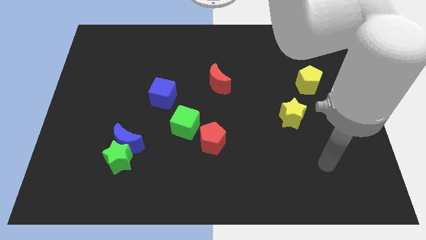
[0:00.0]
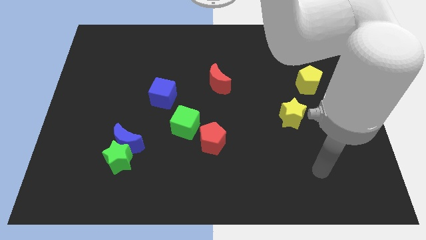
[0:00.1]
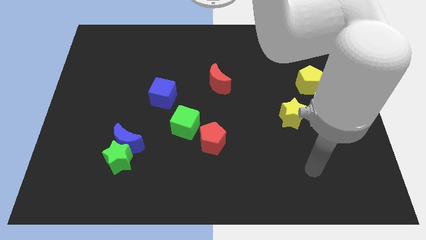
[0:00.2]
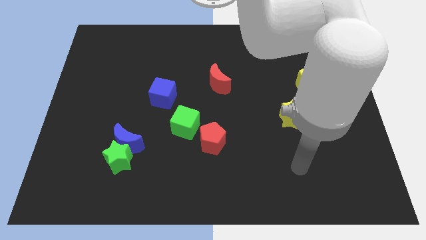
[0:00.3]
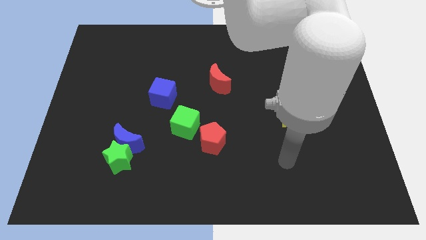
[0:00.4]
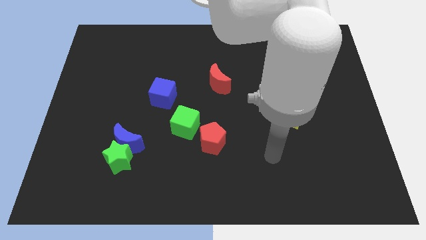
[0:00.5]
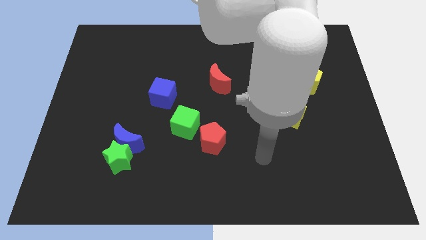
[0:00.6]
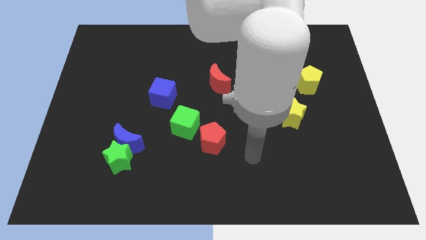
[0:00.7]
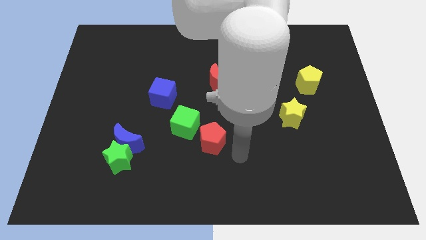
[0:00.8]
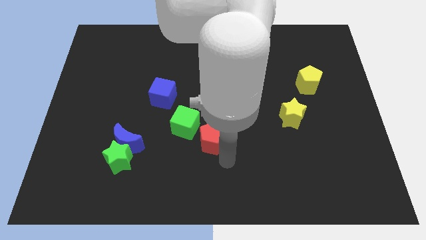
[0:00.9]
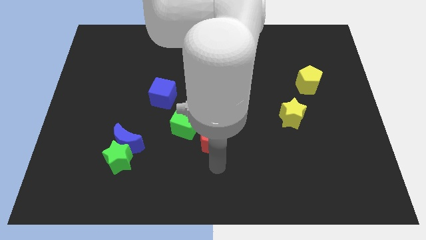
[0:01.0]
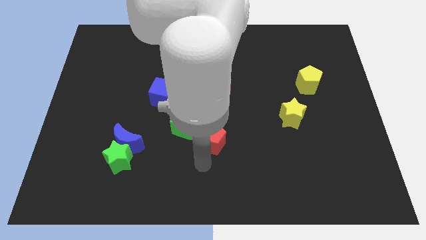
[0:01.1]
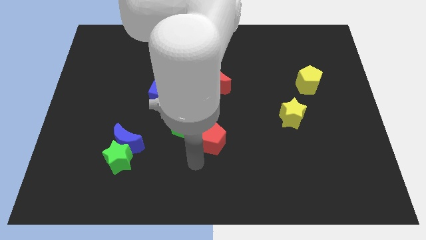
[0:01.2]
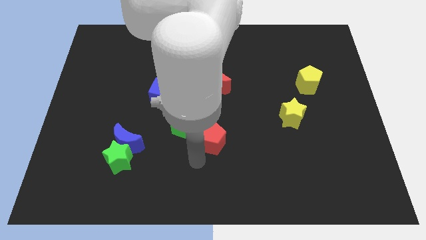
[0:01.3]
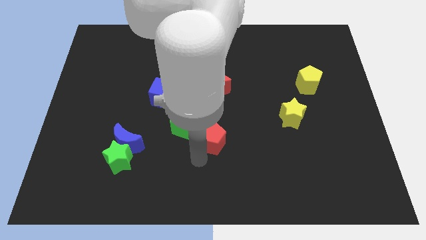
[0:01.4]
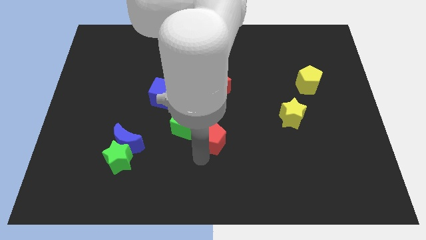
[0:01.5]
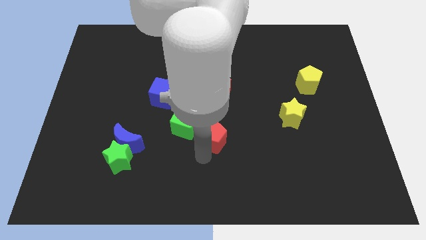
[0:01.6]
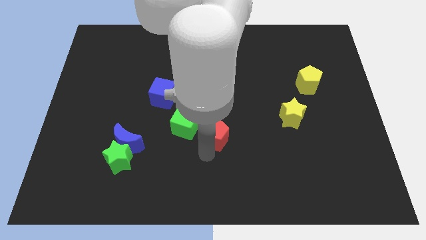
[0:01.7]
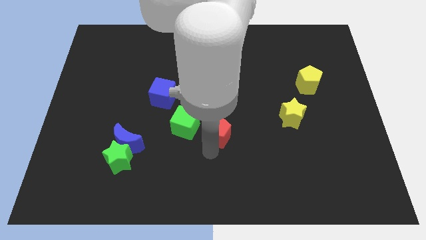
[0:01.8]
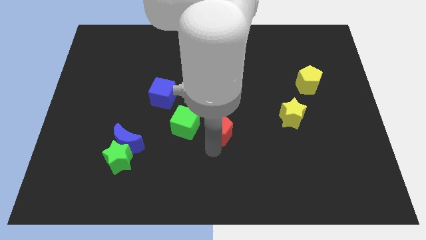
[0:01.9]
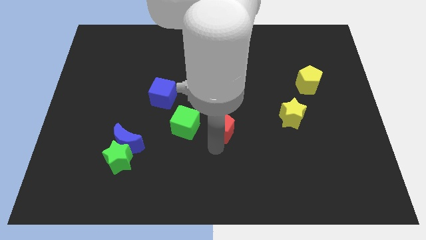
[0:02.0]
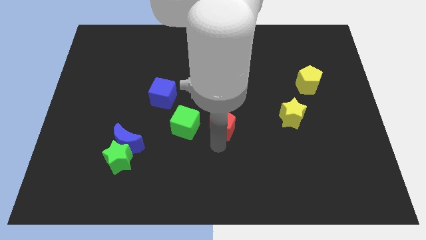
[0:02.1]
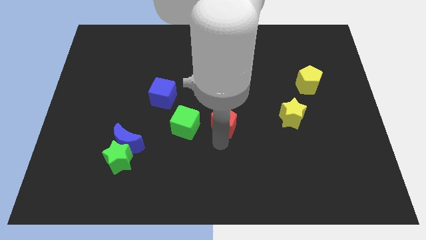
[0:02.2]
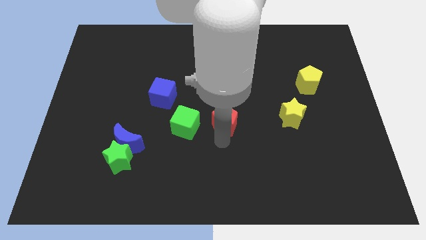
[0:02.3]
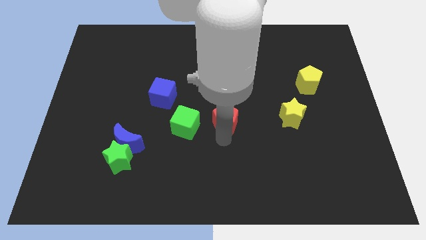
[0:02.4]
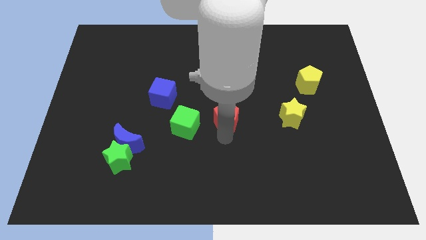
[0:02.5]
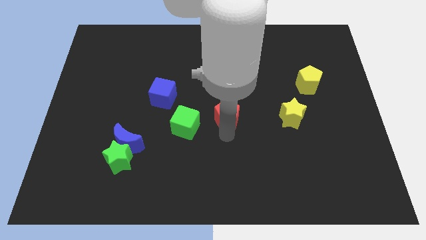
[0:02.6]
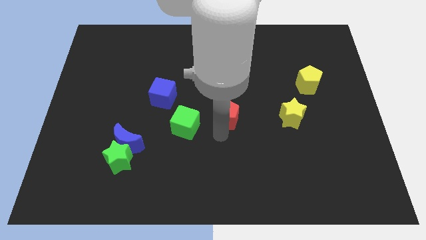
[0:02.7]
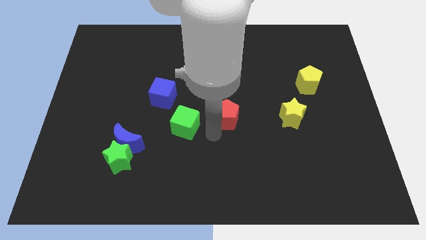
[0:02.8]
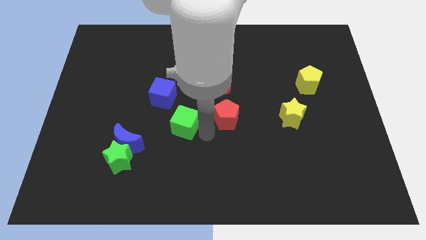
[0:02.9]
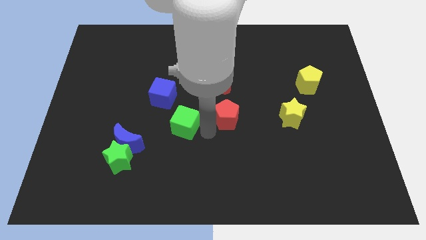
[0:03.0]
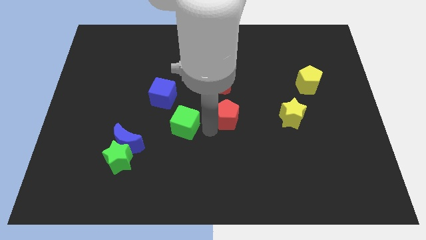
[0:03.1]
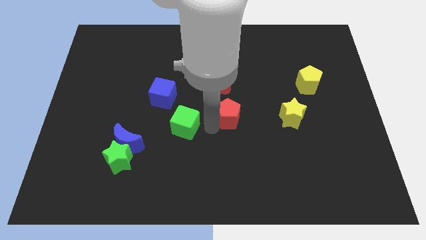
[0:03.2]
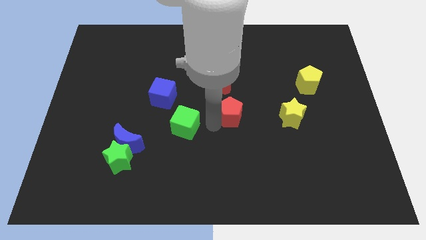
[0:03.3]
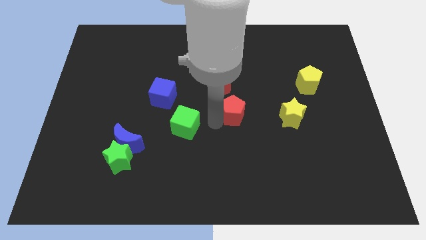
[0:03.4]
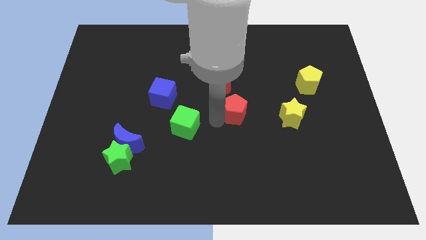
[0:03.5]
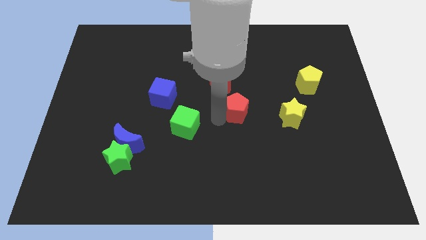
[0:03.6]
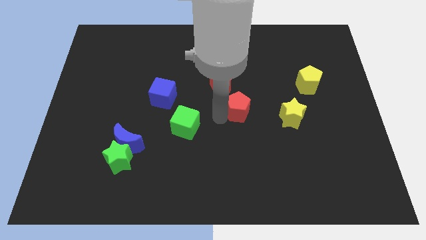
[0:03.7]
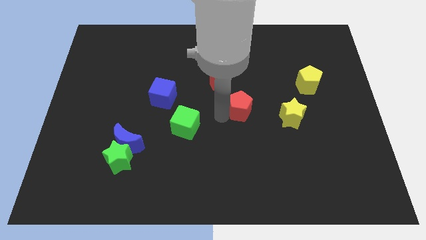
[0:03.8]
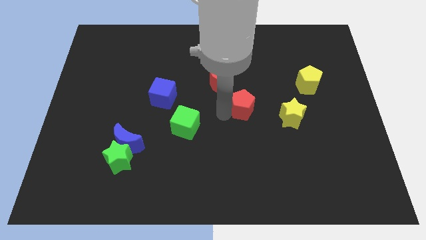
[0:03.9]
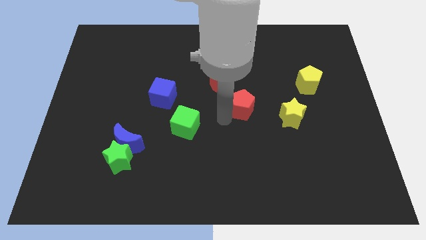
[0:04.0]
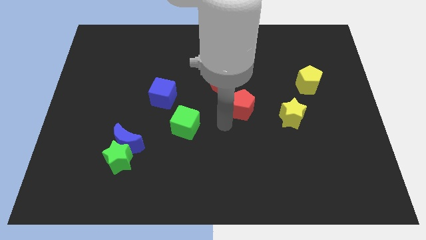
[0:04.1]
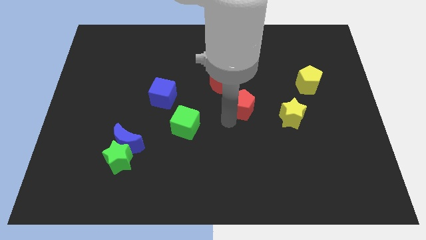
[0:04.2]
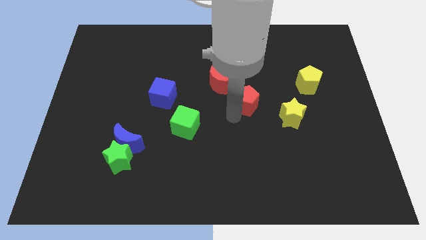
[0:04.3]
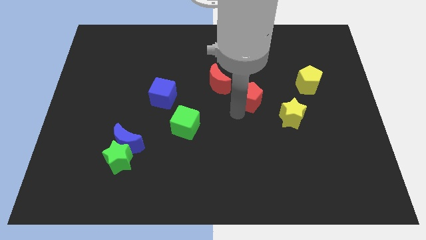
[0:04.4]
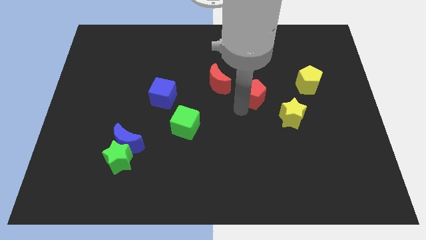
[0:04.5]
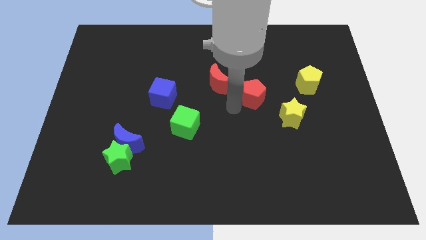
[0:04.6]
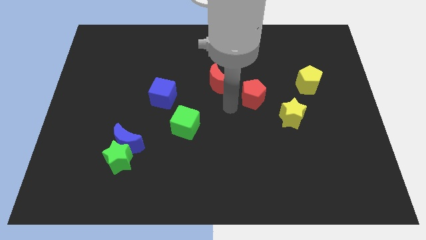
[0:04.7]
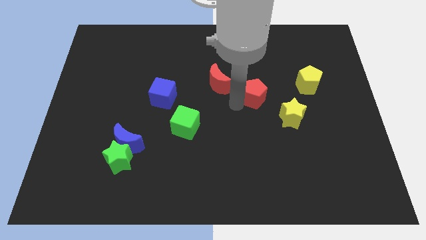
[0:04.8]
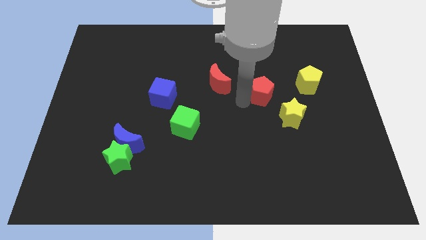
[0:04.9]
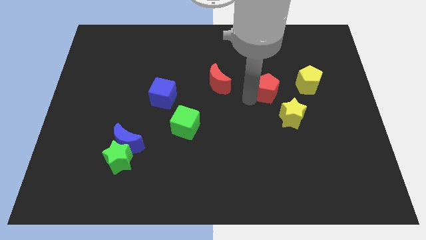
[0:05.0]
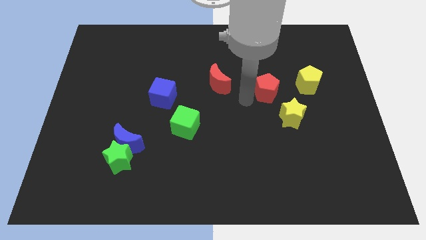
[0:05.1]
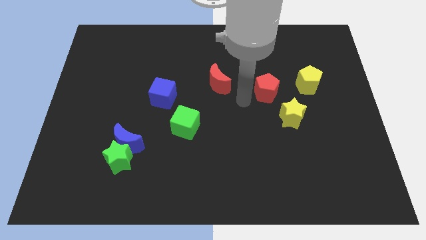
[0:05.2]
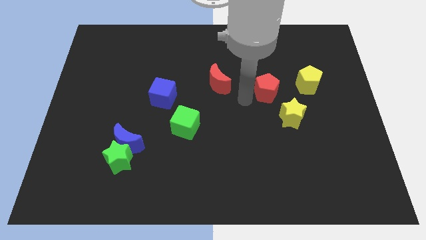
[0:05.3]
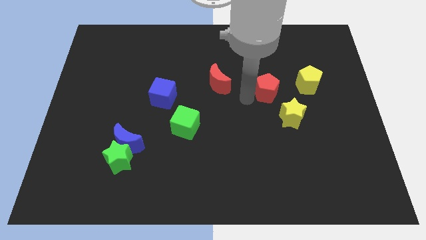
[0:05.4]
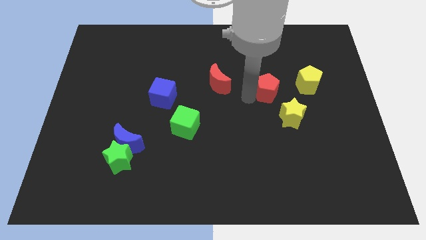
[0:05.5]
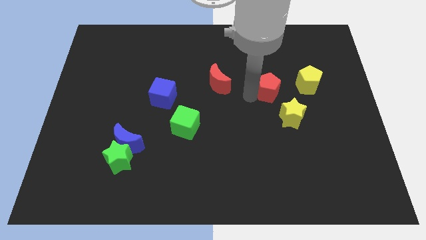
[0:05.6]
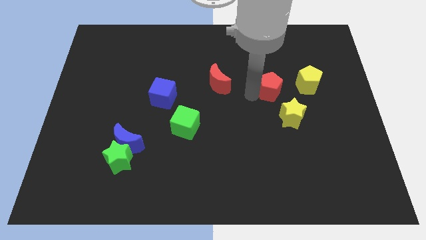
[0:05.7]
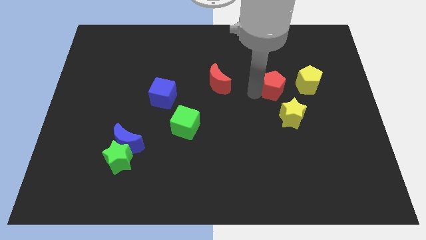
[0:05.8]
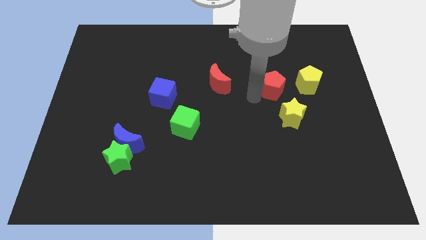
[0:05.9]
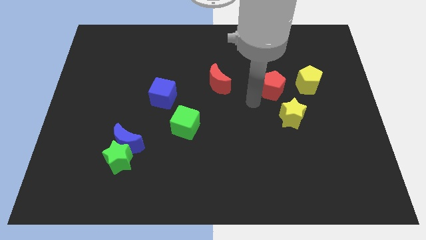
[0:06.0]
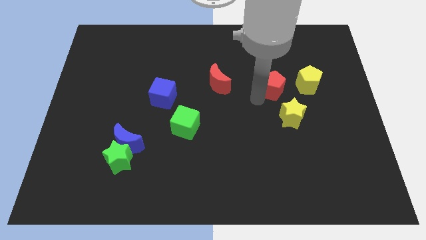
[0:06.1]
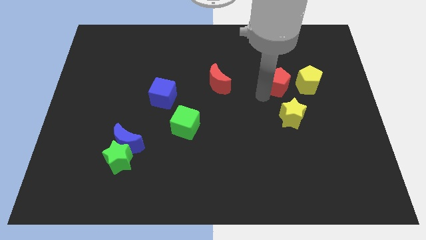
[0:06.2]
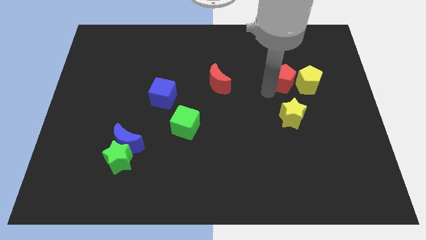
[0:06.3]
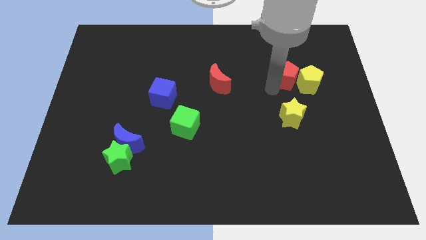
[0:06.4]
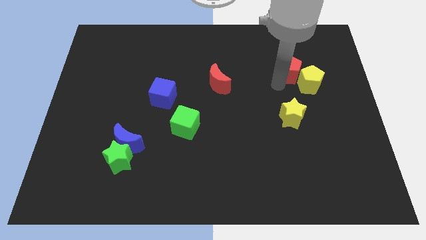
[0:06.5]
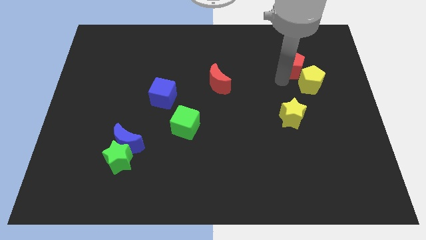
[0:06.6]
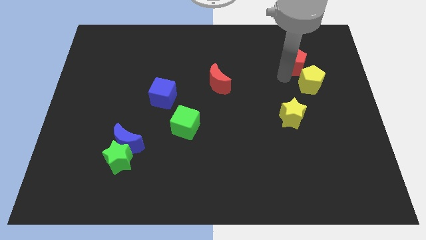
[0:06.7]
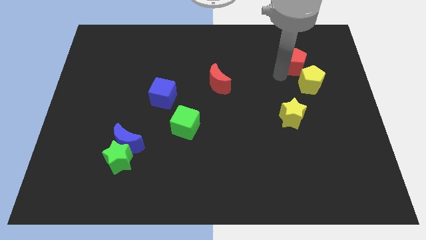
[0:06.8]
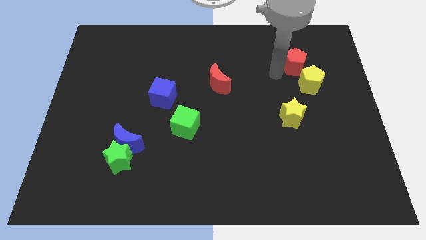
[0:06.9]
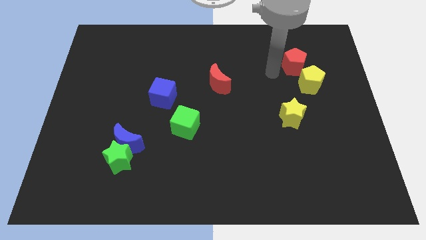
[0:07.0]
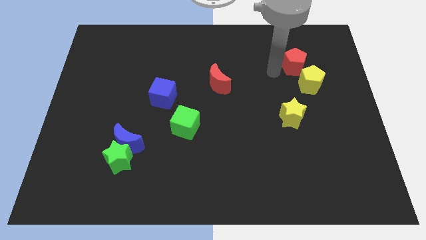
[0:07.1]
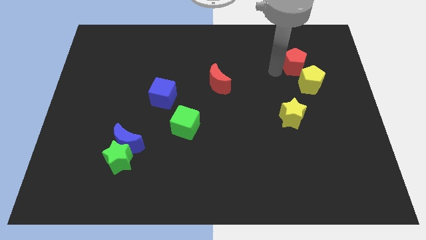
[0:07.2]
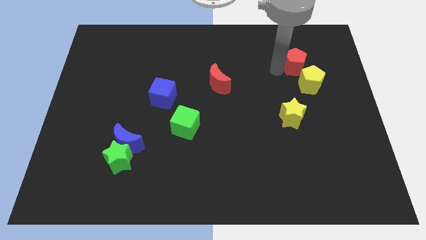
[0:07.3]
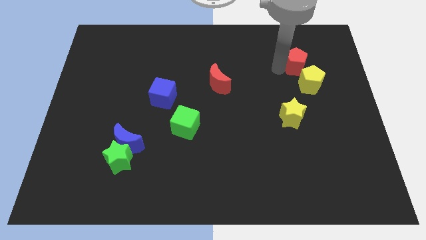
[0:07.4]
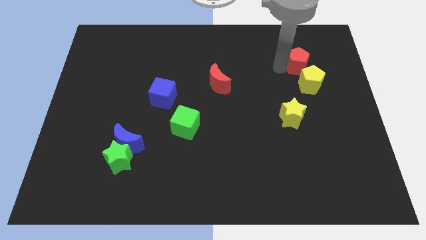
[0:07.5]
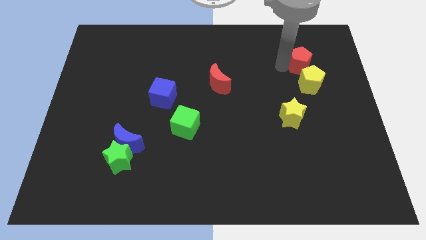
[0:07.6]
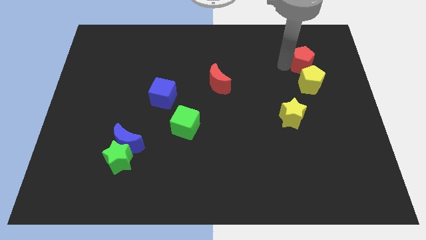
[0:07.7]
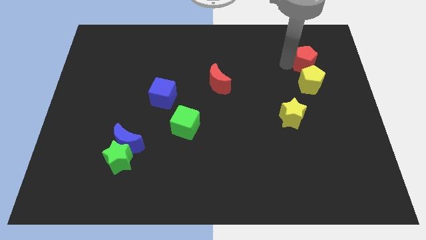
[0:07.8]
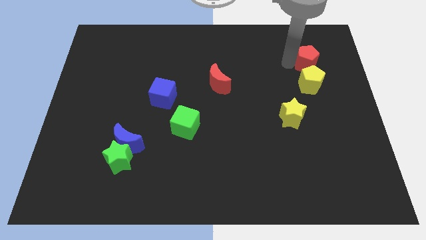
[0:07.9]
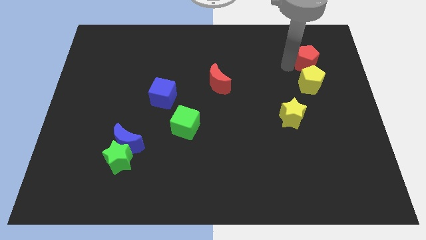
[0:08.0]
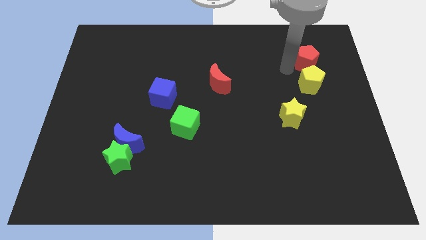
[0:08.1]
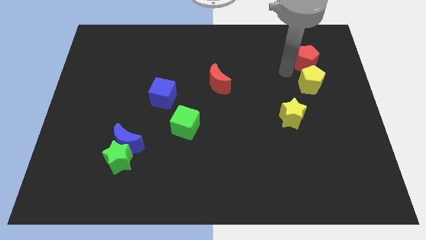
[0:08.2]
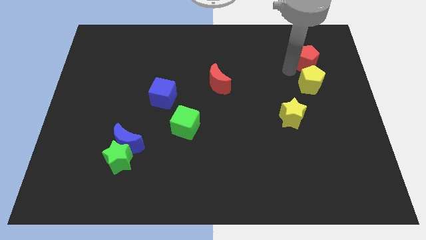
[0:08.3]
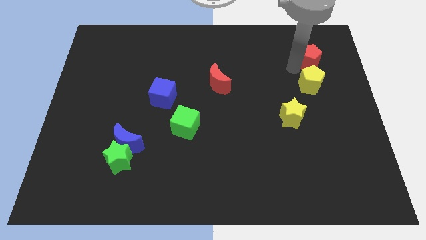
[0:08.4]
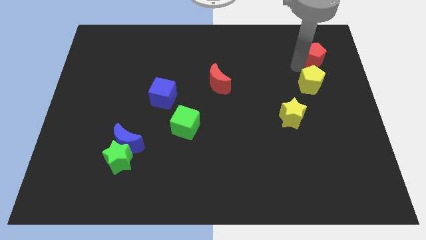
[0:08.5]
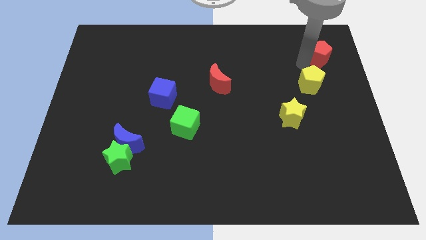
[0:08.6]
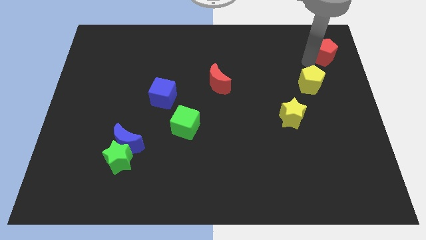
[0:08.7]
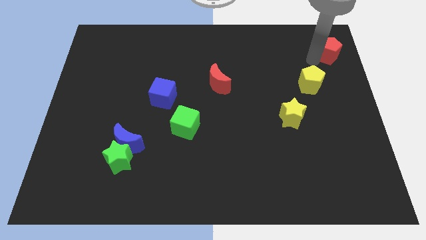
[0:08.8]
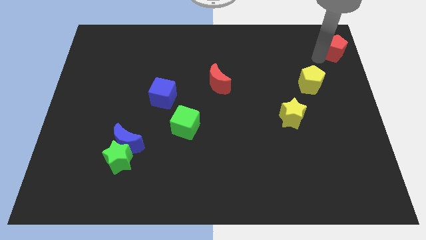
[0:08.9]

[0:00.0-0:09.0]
push the red pentagon to the upper right corner
